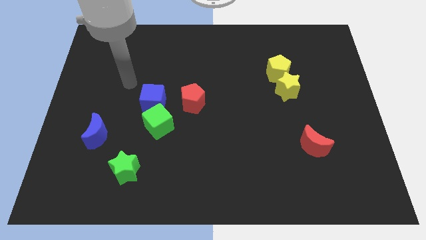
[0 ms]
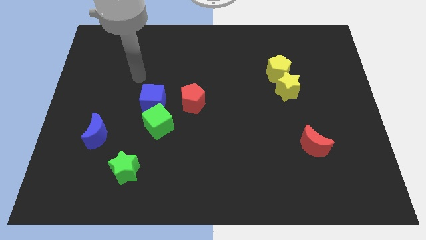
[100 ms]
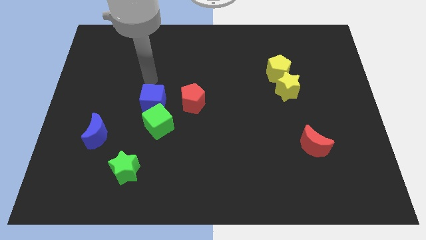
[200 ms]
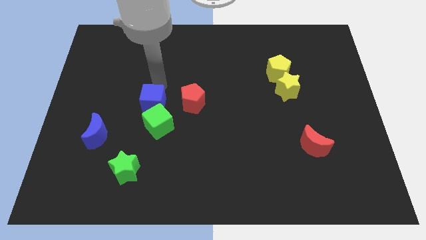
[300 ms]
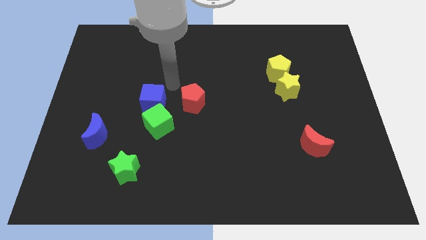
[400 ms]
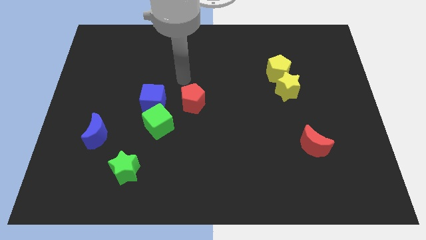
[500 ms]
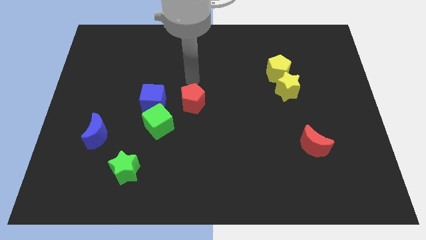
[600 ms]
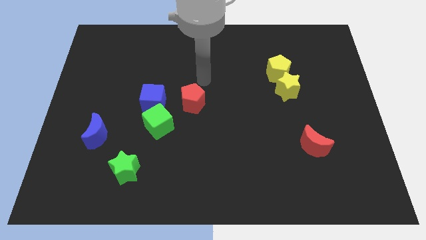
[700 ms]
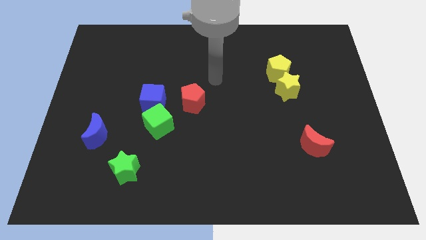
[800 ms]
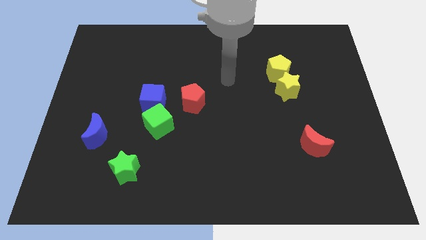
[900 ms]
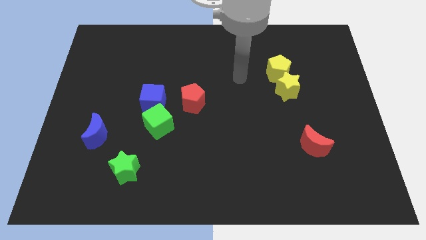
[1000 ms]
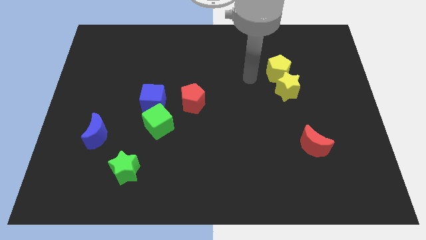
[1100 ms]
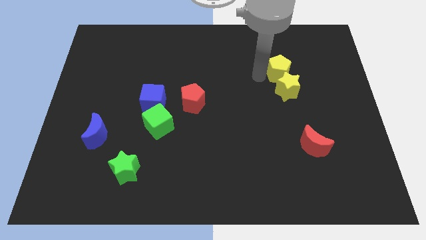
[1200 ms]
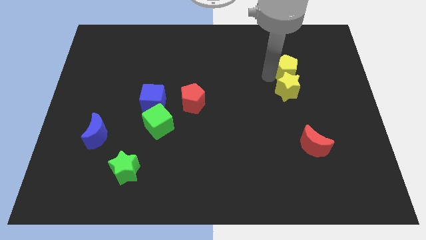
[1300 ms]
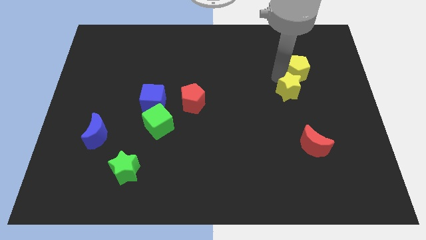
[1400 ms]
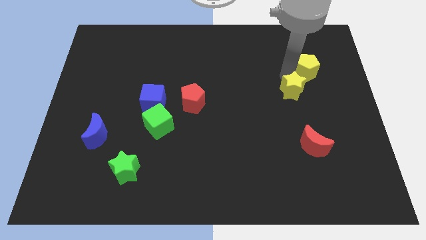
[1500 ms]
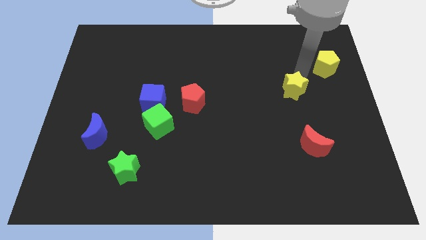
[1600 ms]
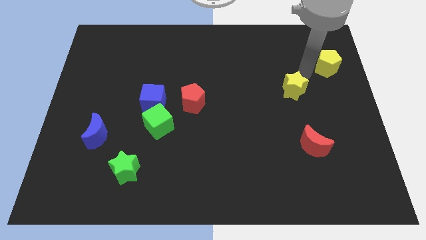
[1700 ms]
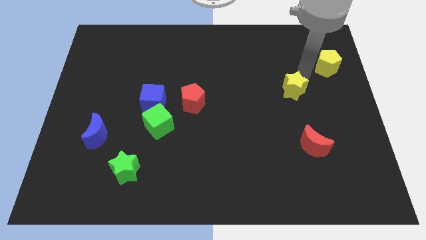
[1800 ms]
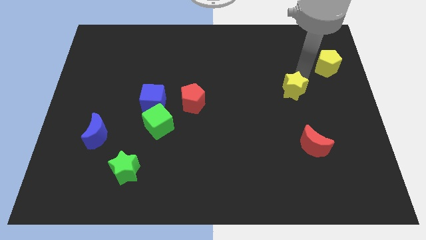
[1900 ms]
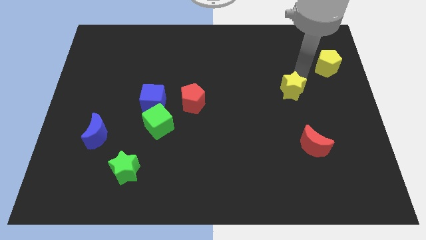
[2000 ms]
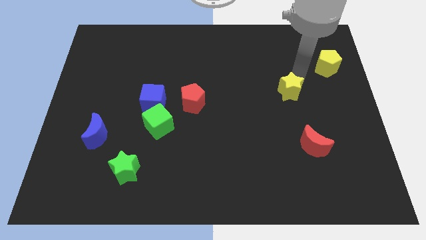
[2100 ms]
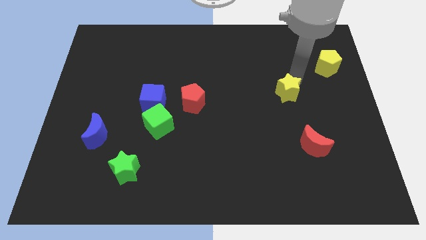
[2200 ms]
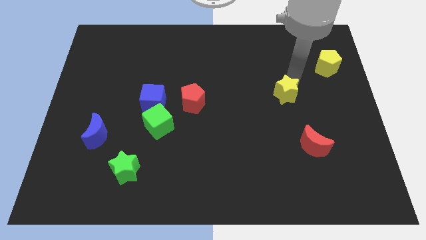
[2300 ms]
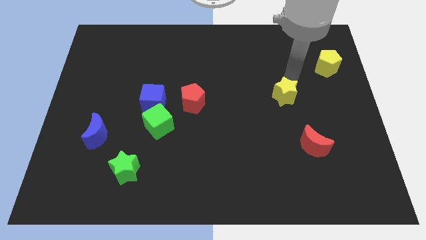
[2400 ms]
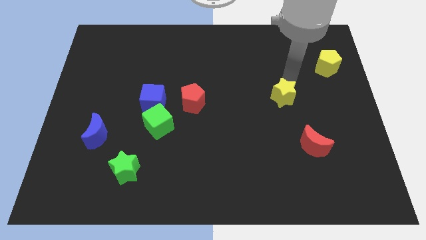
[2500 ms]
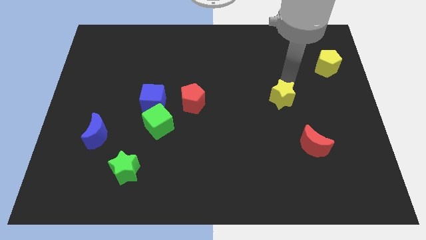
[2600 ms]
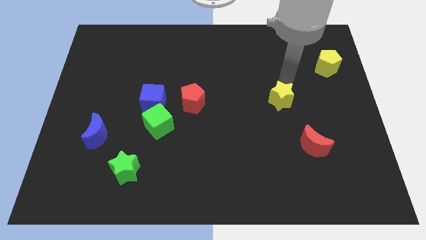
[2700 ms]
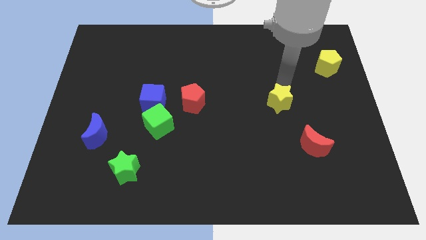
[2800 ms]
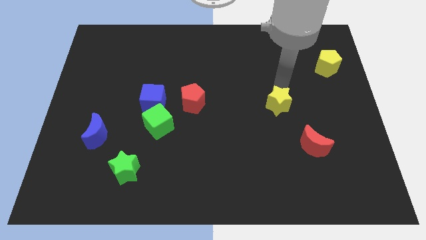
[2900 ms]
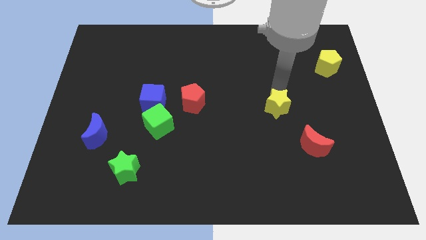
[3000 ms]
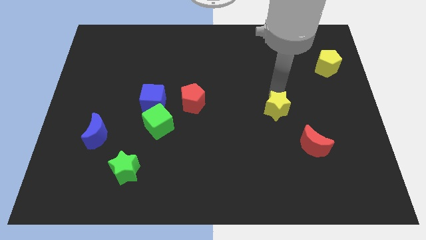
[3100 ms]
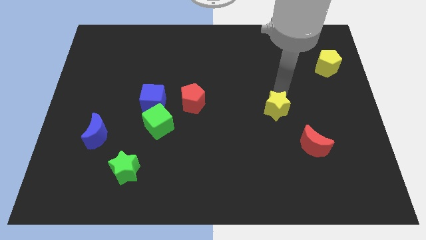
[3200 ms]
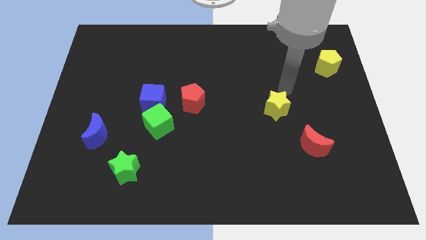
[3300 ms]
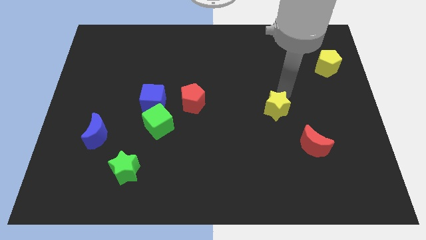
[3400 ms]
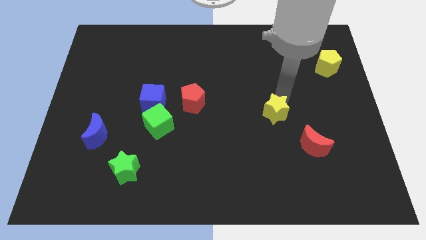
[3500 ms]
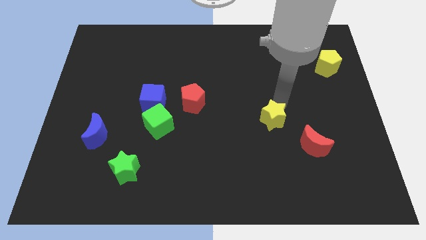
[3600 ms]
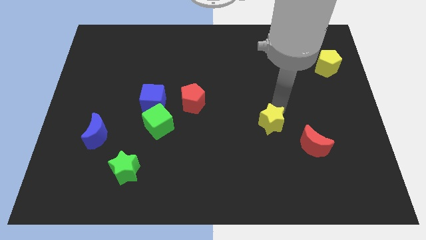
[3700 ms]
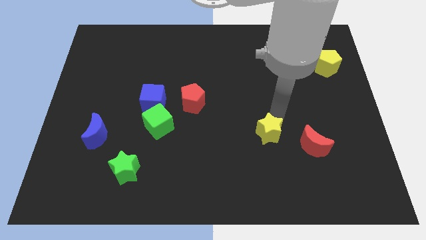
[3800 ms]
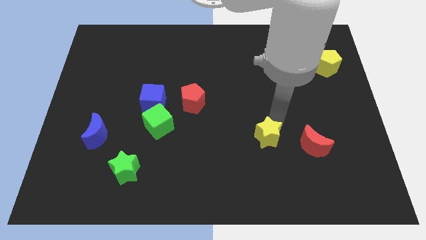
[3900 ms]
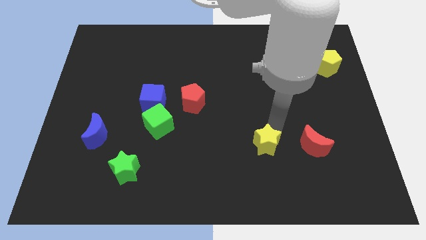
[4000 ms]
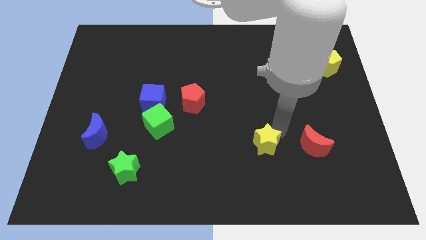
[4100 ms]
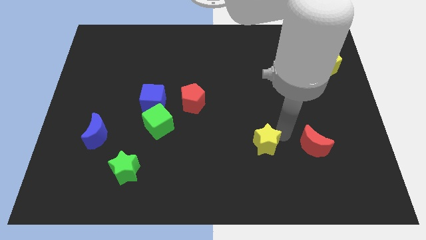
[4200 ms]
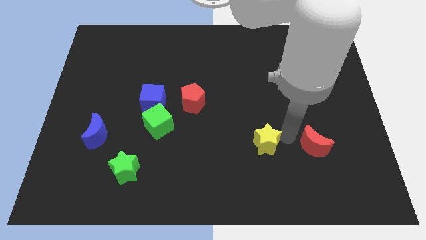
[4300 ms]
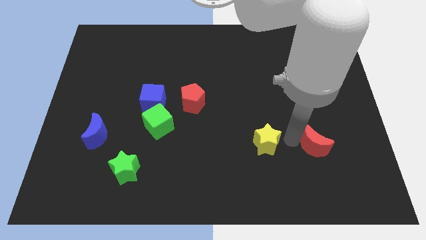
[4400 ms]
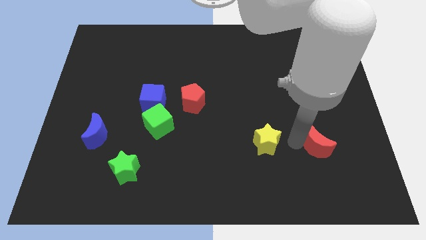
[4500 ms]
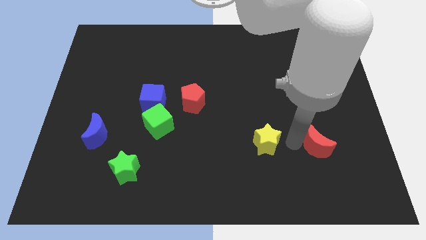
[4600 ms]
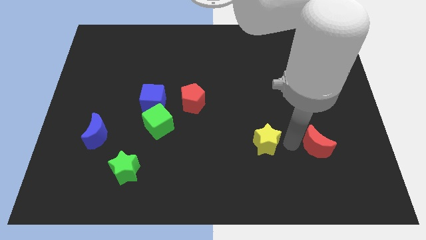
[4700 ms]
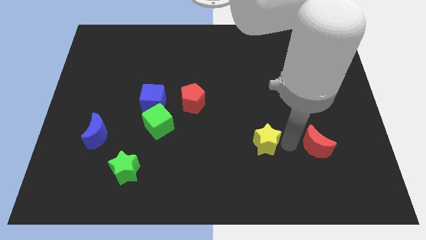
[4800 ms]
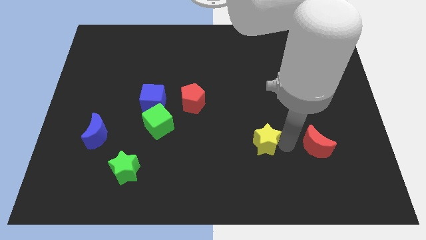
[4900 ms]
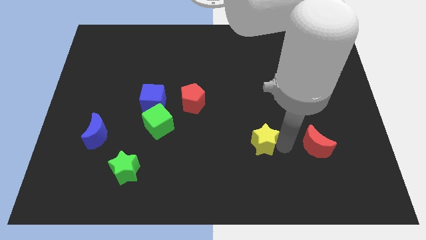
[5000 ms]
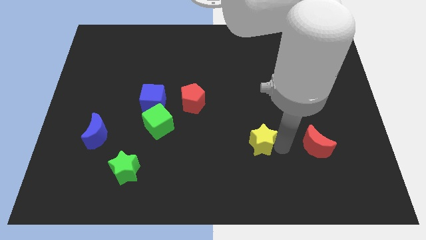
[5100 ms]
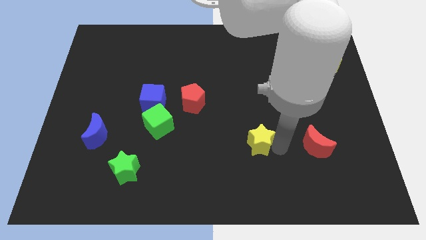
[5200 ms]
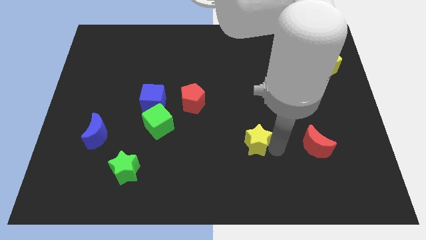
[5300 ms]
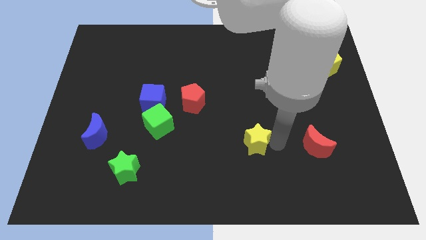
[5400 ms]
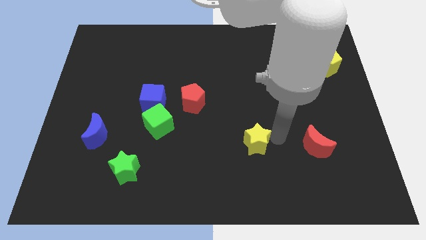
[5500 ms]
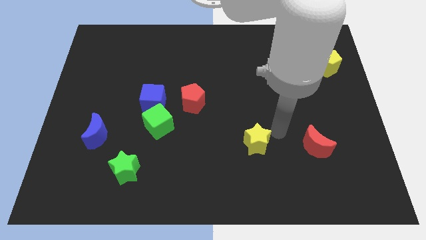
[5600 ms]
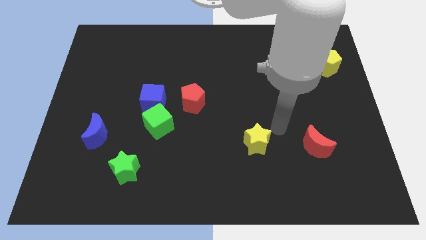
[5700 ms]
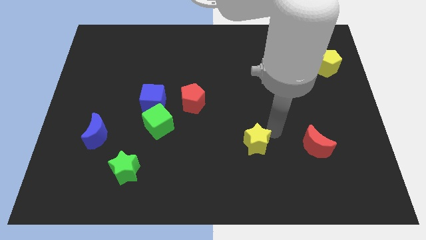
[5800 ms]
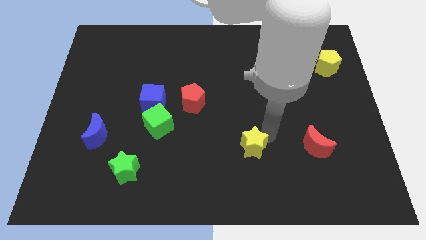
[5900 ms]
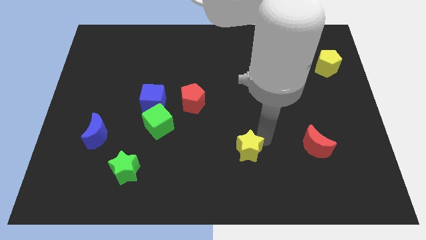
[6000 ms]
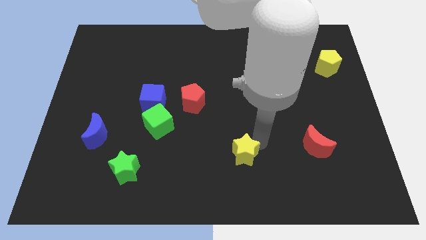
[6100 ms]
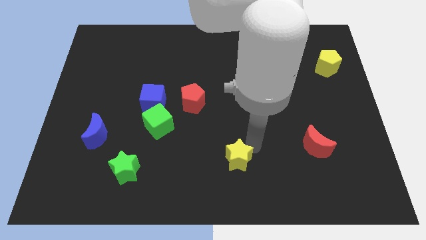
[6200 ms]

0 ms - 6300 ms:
move the yellow star to the bottom side
